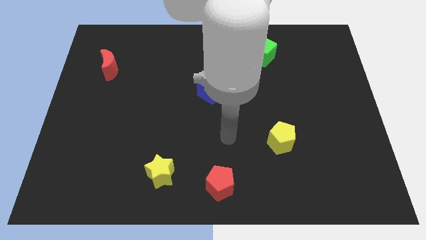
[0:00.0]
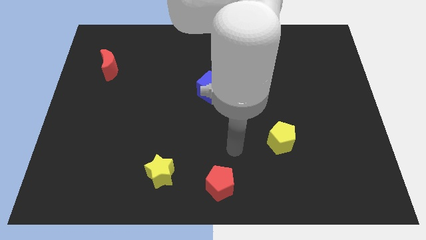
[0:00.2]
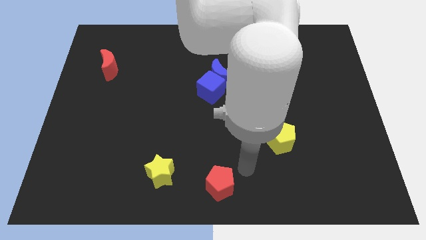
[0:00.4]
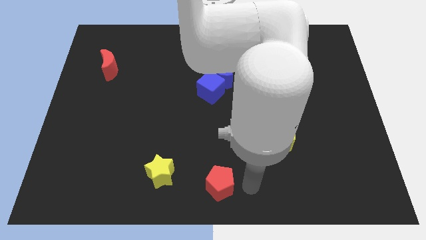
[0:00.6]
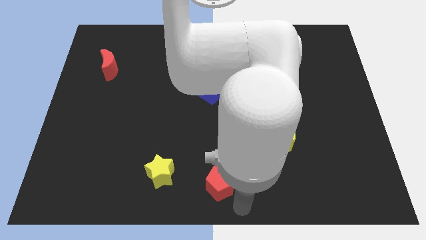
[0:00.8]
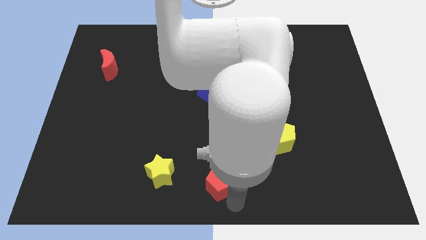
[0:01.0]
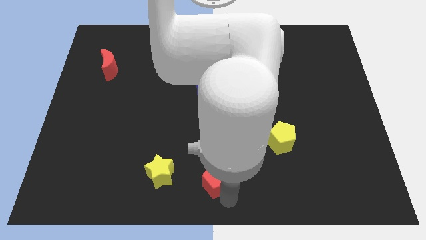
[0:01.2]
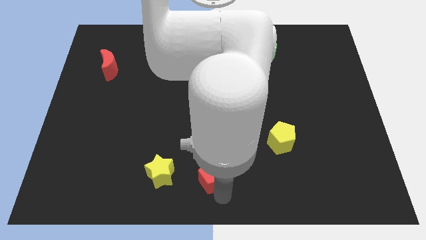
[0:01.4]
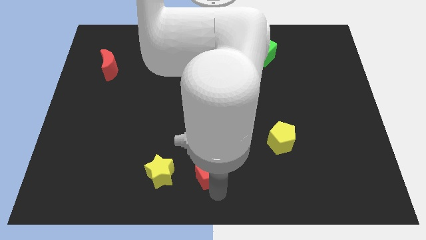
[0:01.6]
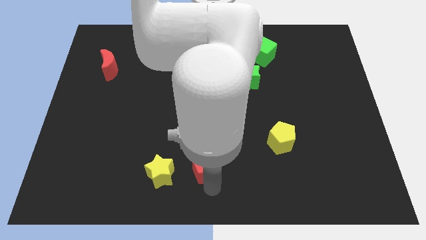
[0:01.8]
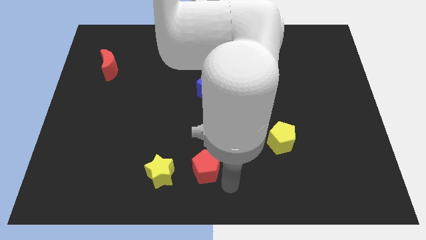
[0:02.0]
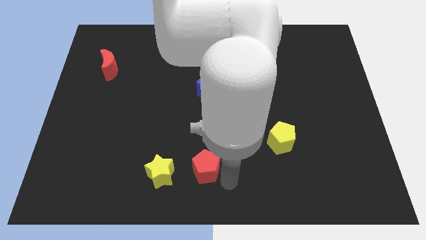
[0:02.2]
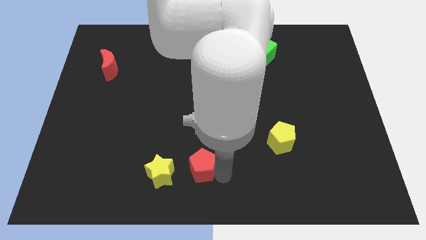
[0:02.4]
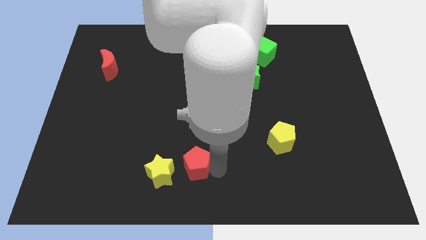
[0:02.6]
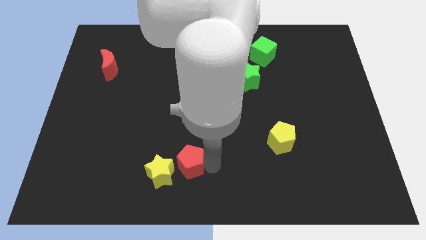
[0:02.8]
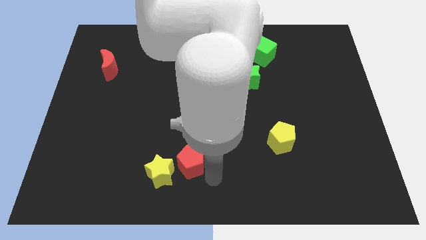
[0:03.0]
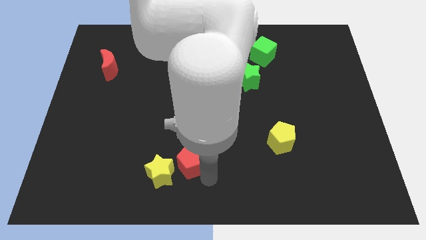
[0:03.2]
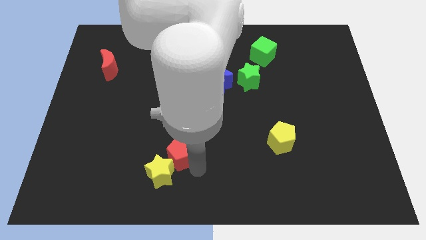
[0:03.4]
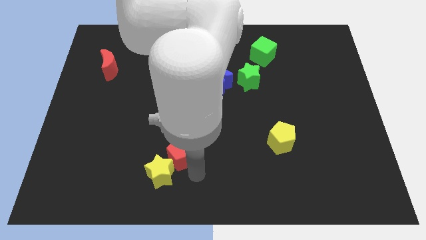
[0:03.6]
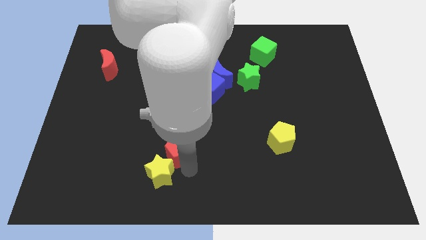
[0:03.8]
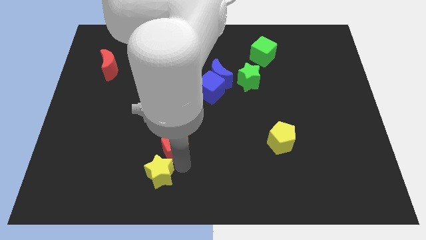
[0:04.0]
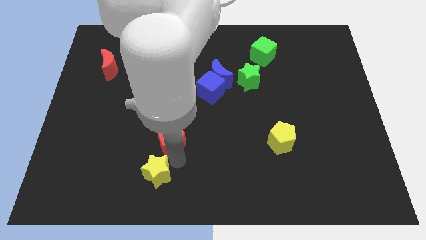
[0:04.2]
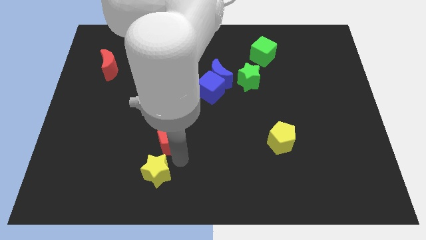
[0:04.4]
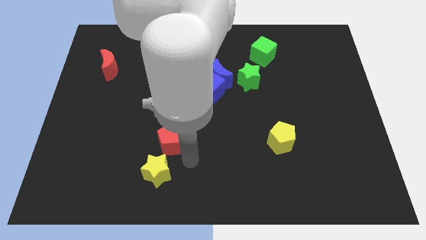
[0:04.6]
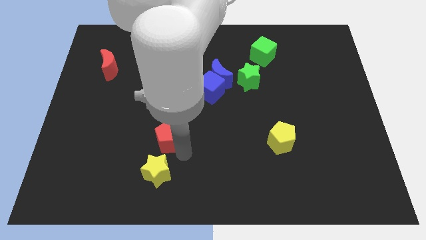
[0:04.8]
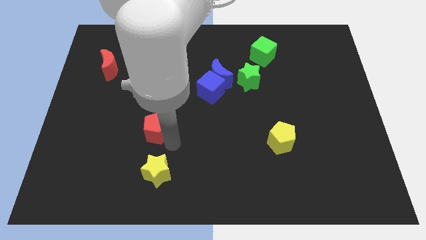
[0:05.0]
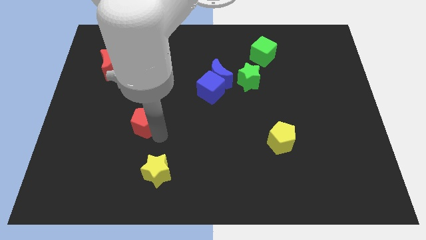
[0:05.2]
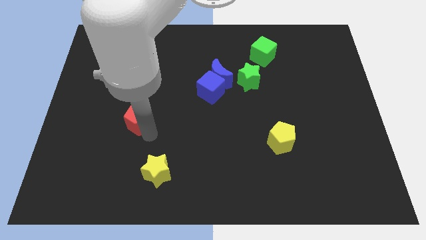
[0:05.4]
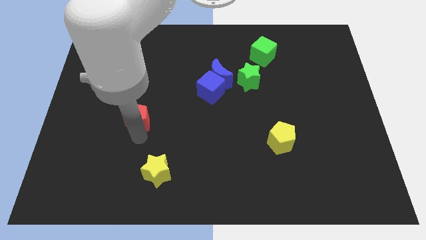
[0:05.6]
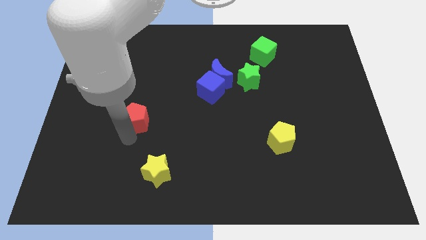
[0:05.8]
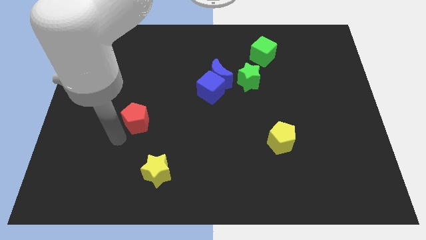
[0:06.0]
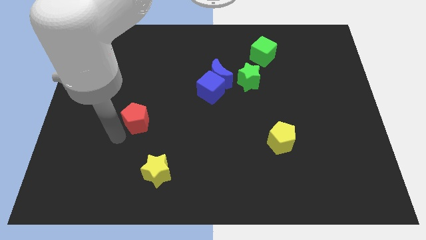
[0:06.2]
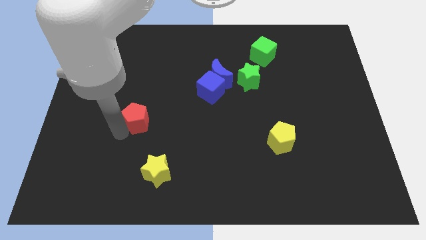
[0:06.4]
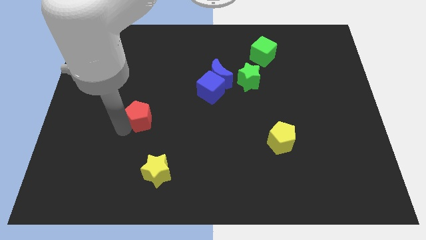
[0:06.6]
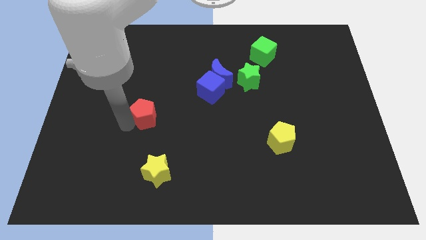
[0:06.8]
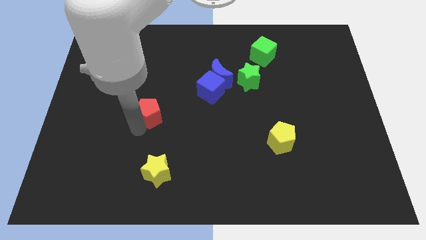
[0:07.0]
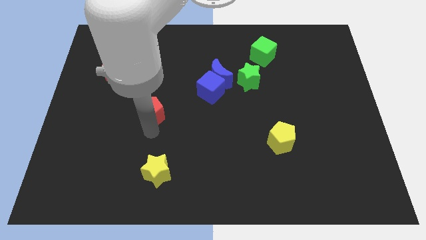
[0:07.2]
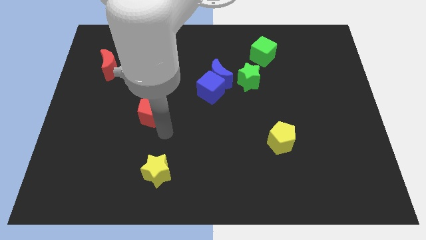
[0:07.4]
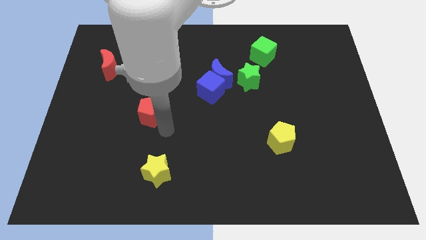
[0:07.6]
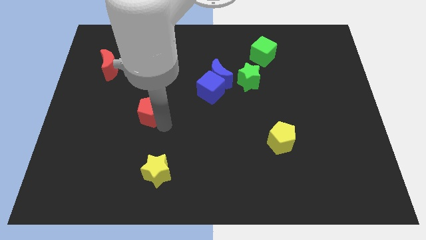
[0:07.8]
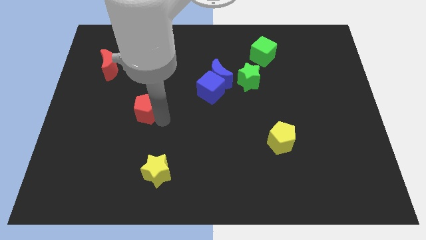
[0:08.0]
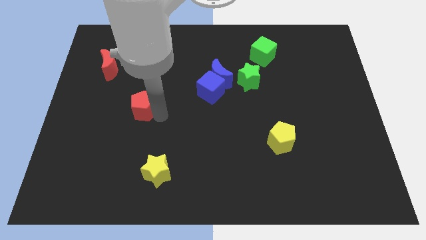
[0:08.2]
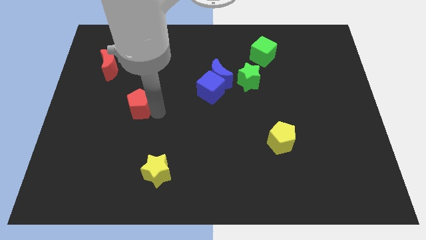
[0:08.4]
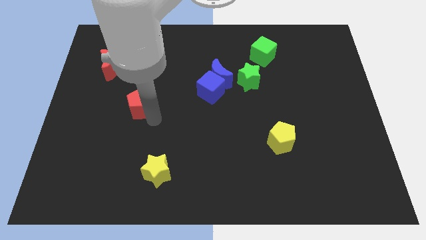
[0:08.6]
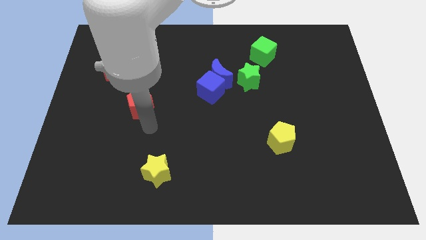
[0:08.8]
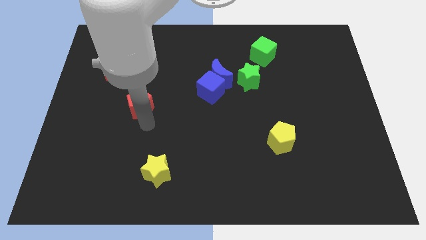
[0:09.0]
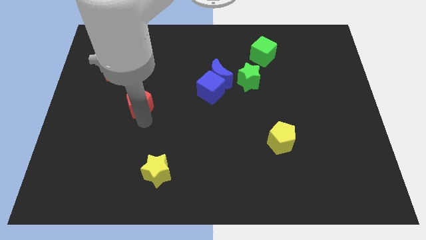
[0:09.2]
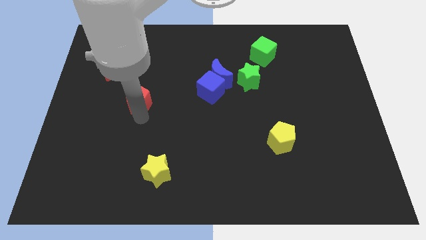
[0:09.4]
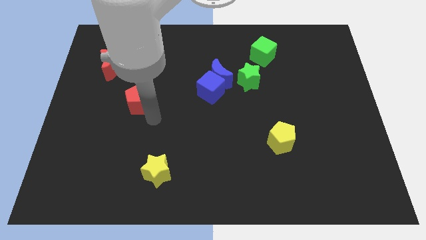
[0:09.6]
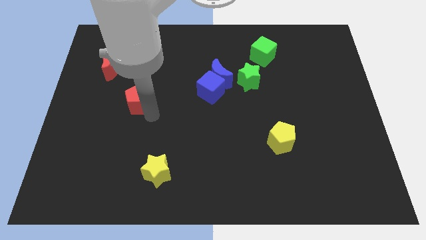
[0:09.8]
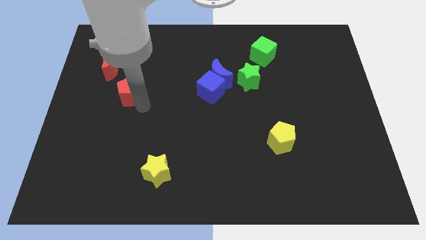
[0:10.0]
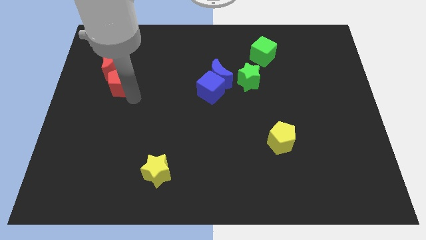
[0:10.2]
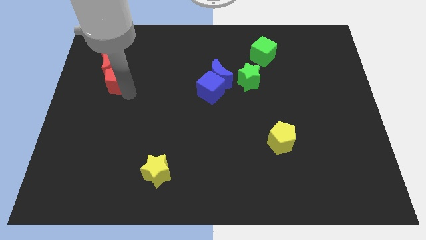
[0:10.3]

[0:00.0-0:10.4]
push the red pentagon towards the red moon

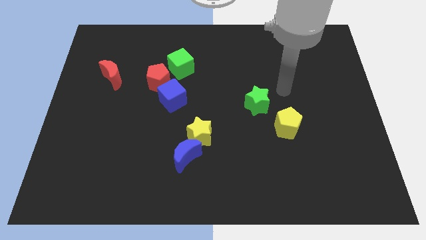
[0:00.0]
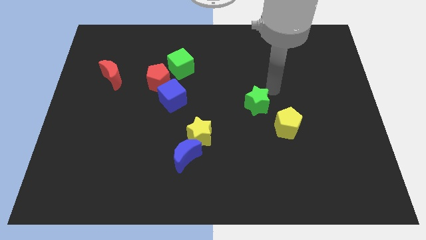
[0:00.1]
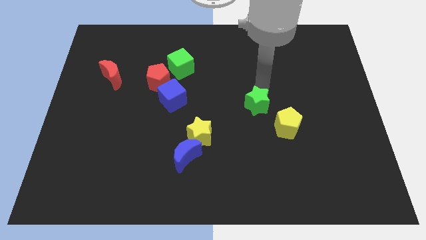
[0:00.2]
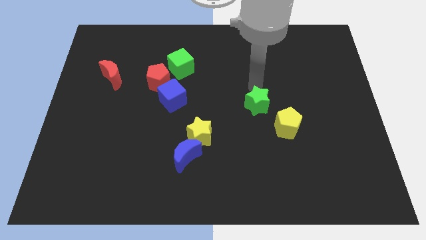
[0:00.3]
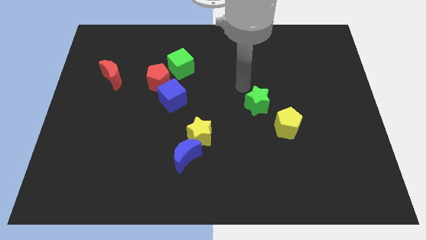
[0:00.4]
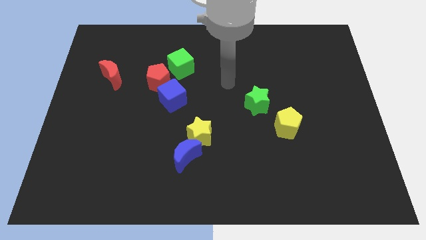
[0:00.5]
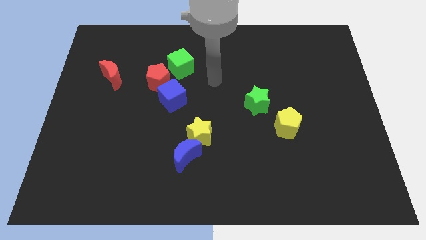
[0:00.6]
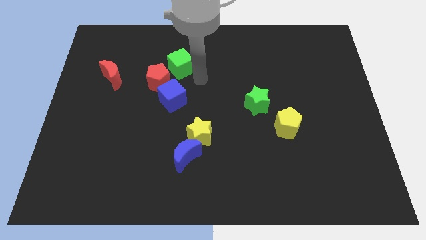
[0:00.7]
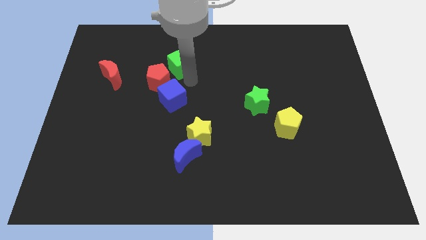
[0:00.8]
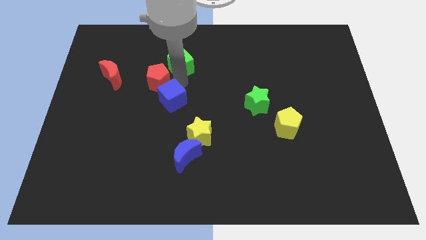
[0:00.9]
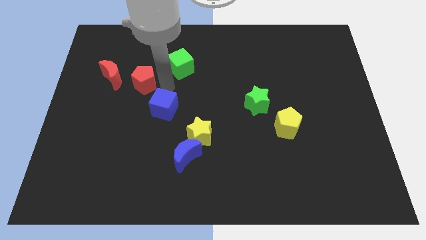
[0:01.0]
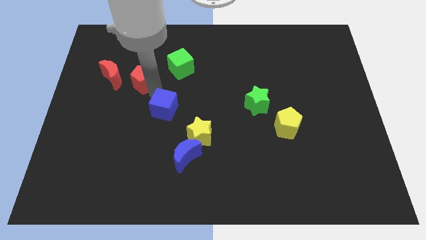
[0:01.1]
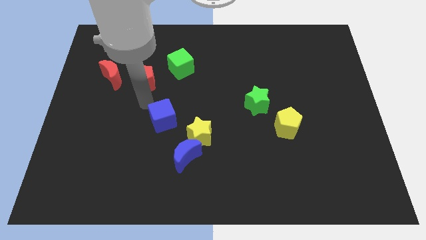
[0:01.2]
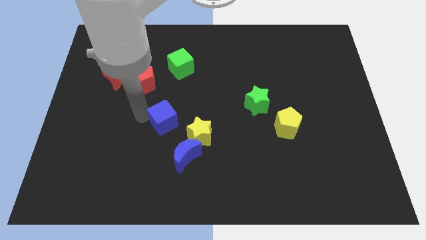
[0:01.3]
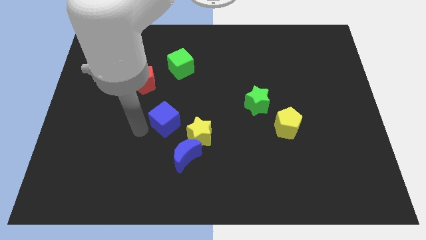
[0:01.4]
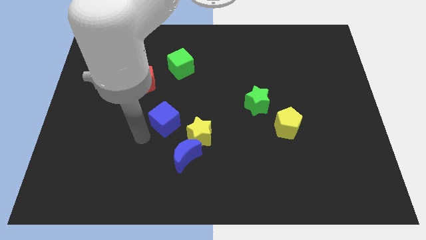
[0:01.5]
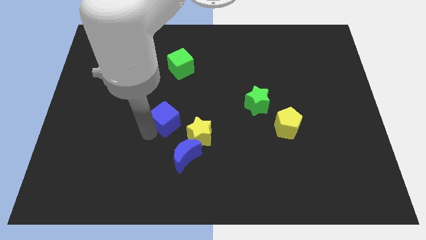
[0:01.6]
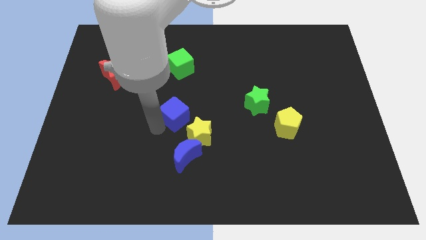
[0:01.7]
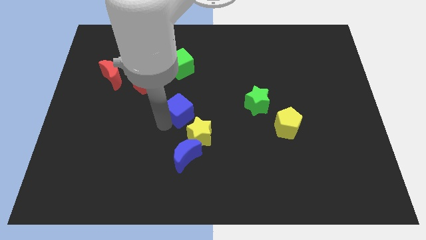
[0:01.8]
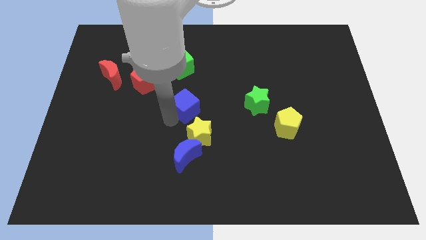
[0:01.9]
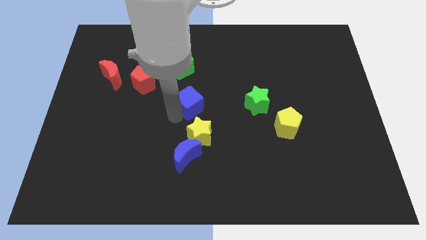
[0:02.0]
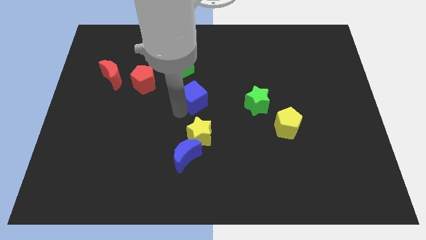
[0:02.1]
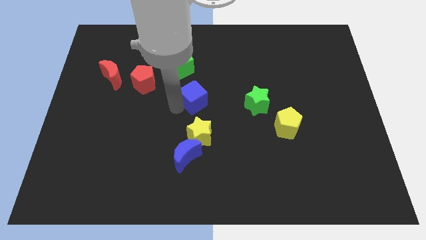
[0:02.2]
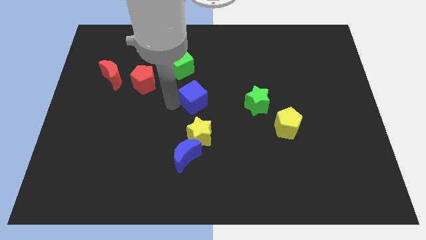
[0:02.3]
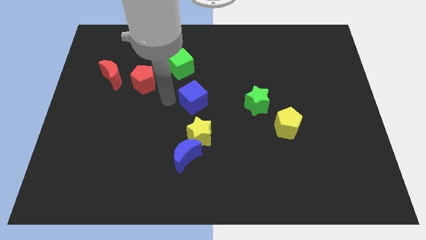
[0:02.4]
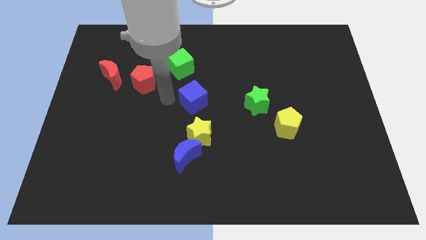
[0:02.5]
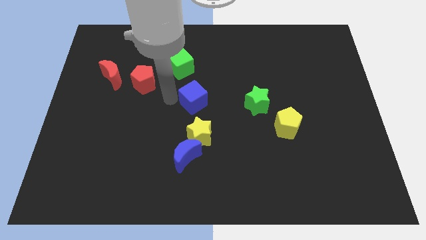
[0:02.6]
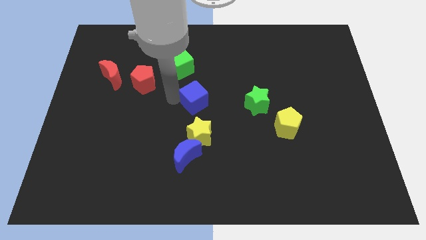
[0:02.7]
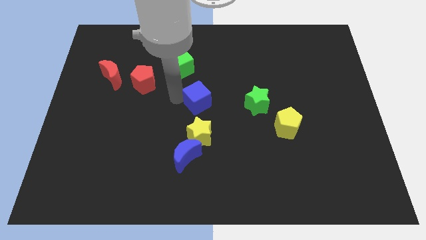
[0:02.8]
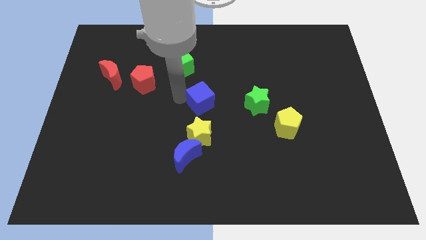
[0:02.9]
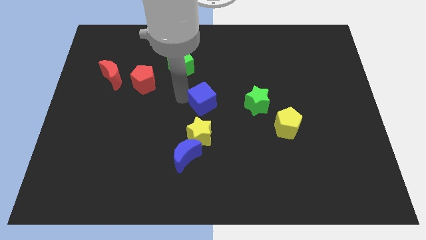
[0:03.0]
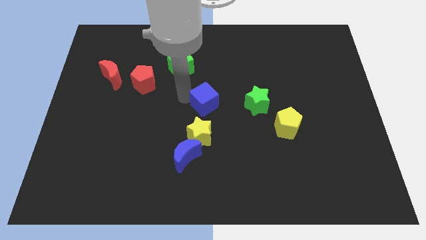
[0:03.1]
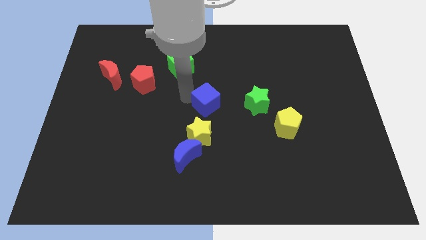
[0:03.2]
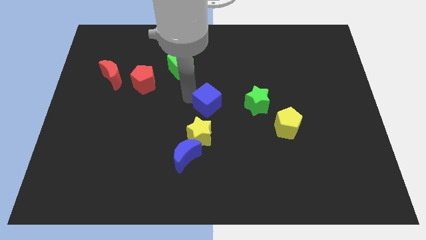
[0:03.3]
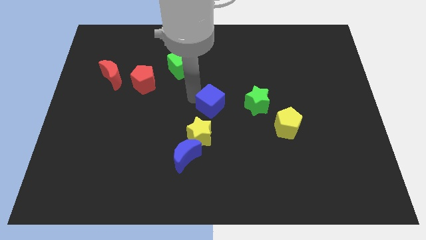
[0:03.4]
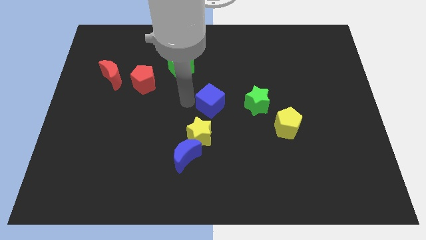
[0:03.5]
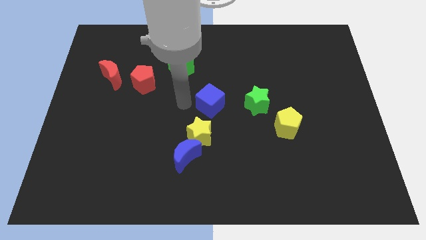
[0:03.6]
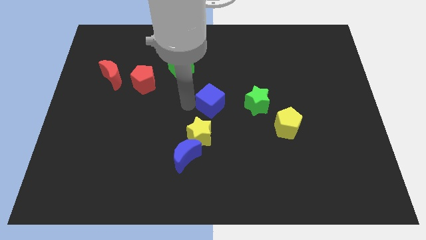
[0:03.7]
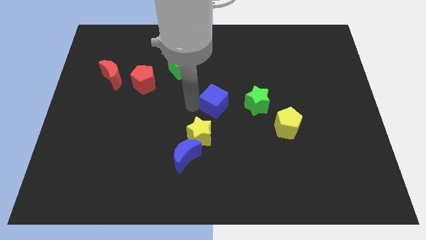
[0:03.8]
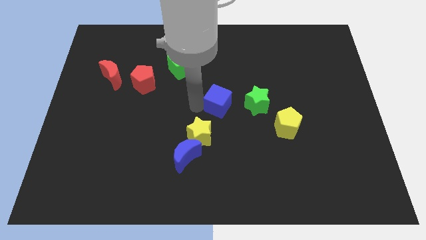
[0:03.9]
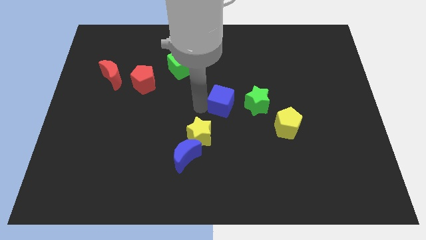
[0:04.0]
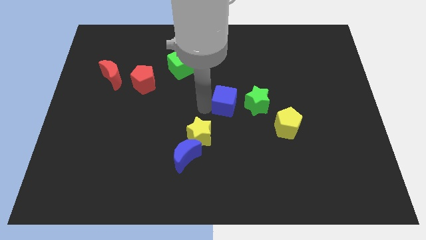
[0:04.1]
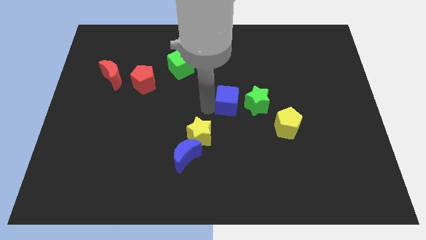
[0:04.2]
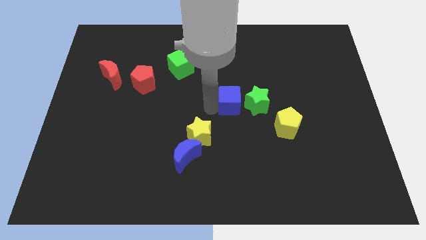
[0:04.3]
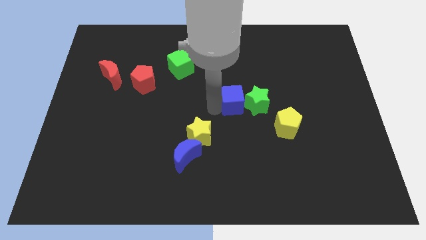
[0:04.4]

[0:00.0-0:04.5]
push the blue cube to the green star
